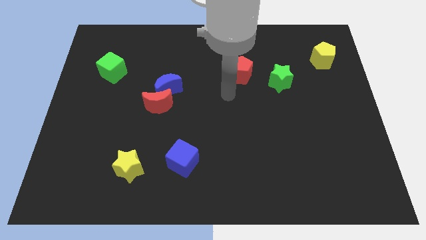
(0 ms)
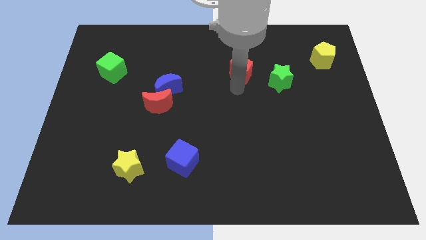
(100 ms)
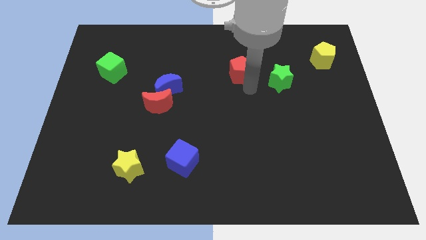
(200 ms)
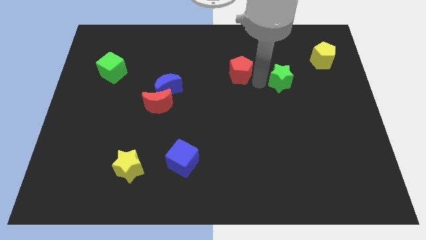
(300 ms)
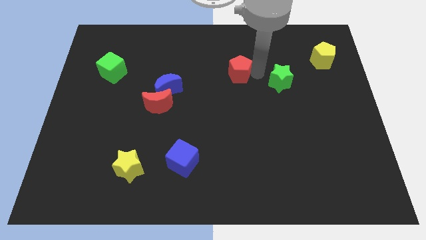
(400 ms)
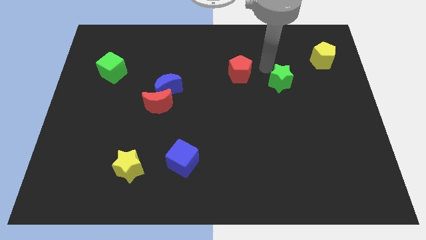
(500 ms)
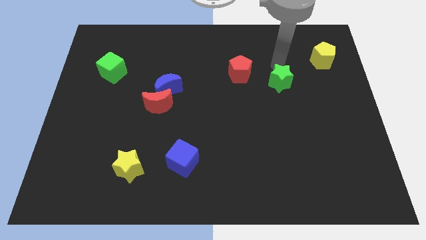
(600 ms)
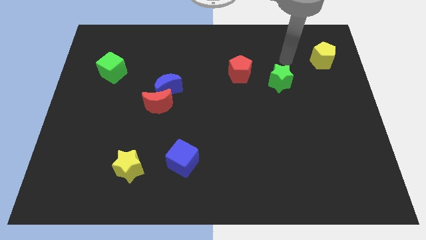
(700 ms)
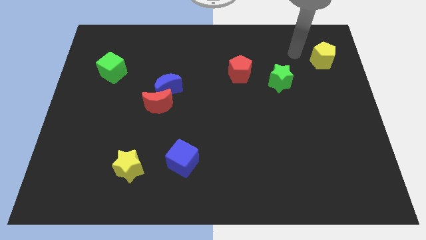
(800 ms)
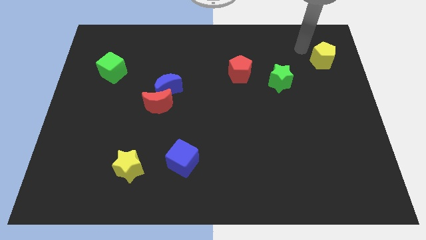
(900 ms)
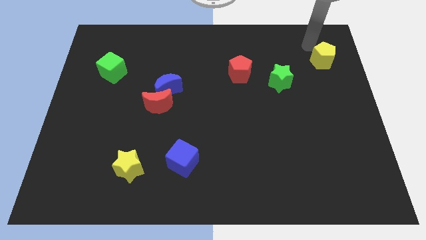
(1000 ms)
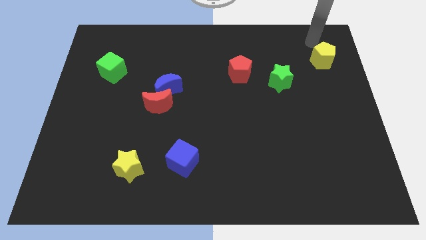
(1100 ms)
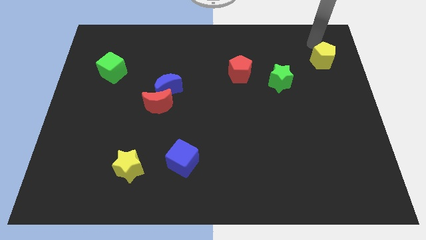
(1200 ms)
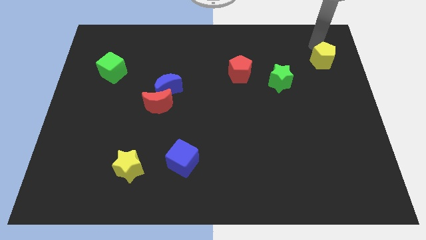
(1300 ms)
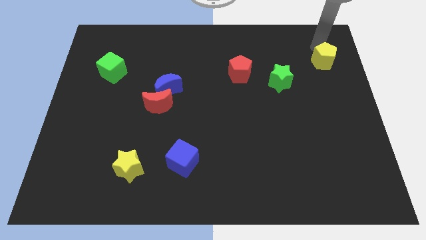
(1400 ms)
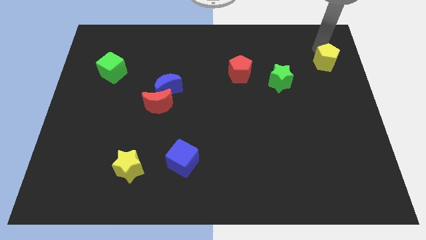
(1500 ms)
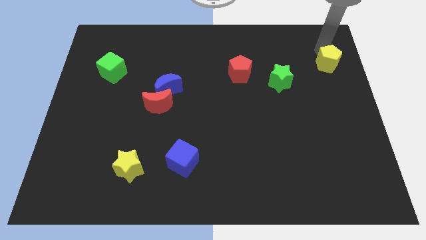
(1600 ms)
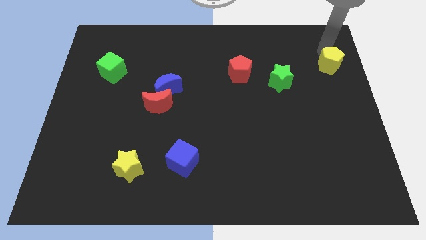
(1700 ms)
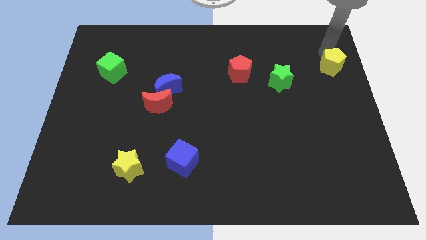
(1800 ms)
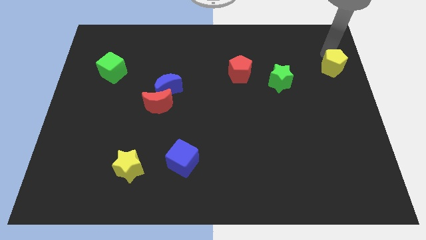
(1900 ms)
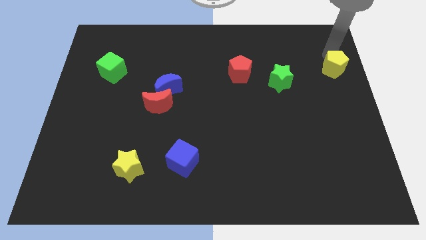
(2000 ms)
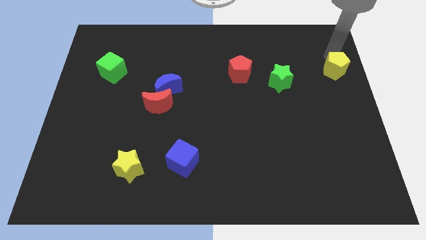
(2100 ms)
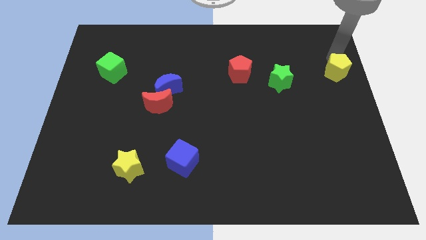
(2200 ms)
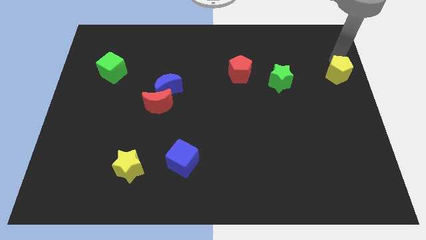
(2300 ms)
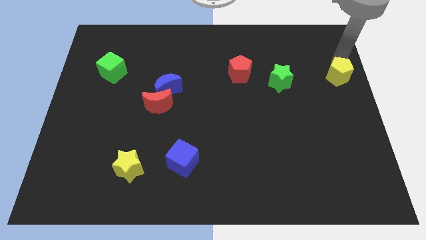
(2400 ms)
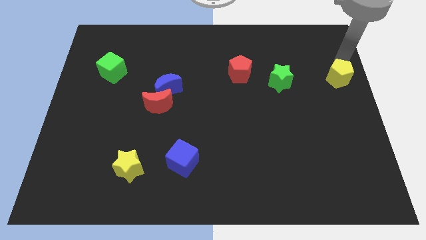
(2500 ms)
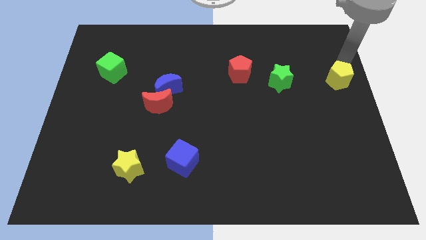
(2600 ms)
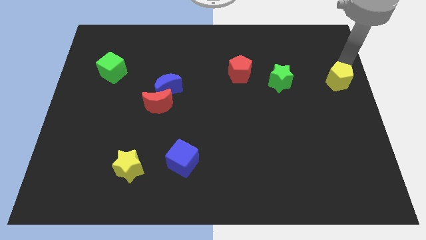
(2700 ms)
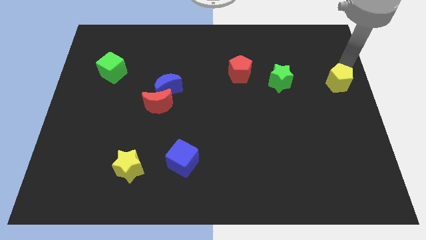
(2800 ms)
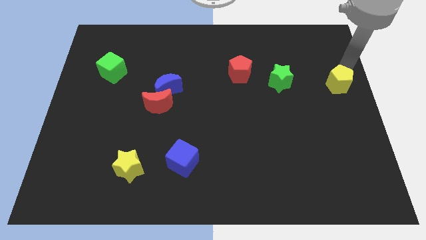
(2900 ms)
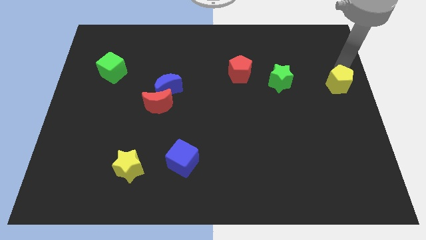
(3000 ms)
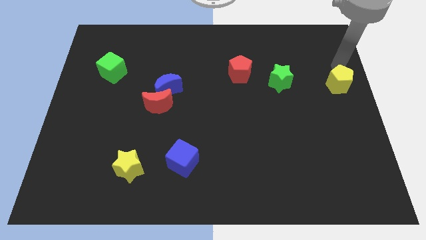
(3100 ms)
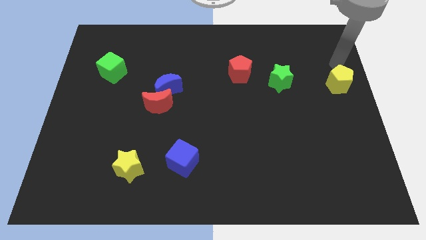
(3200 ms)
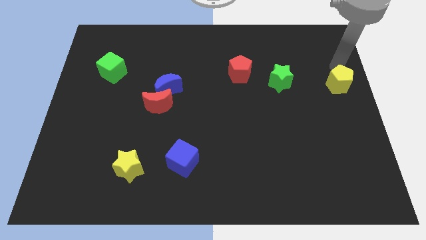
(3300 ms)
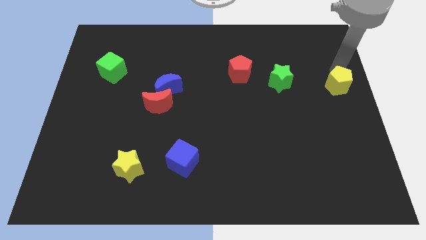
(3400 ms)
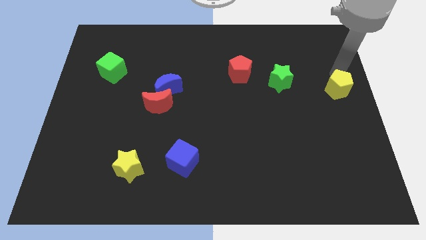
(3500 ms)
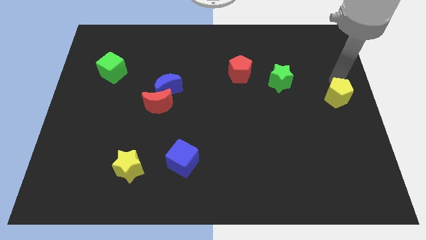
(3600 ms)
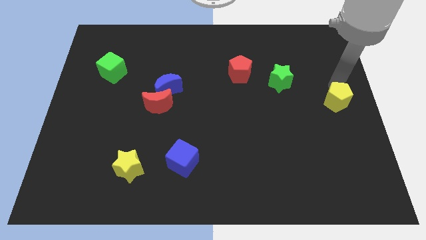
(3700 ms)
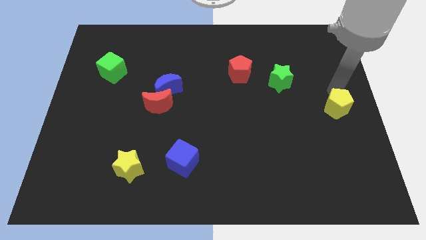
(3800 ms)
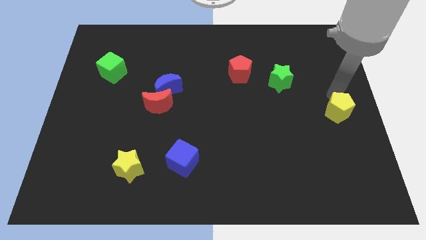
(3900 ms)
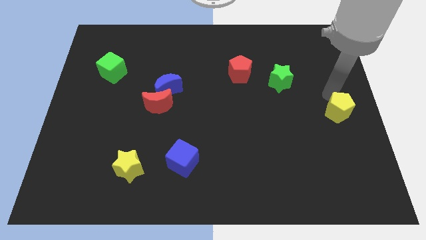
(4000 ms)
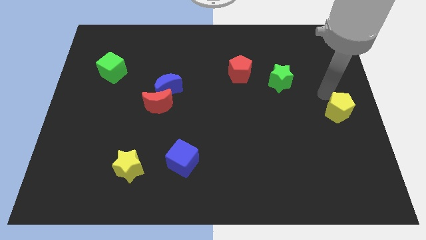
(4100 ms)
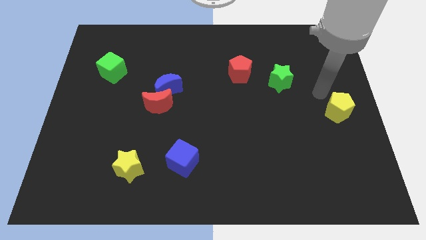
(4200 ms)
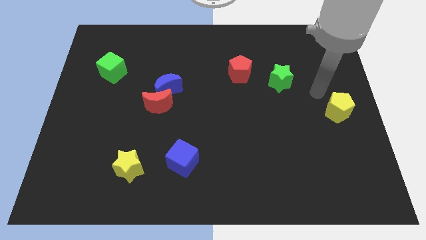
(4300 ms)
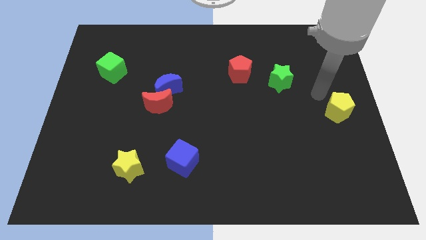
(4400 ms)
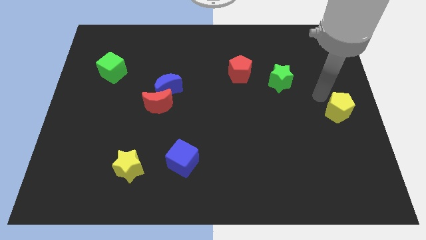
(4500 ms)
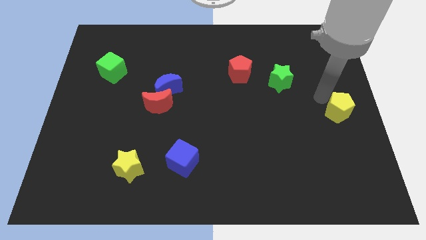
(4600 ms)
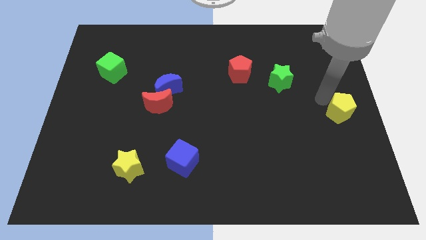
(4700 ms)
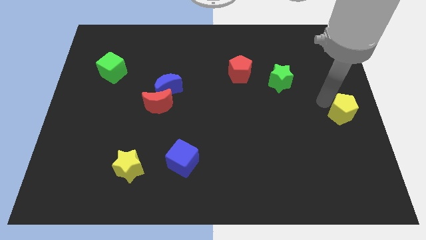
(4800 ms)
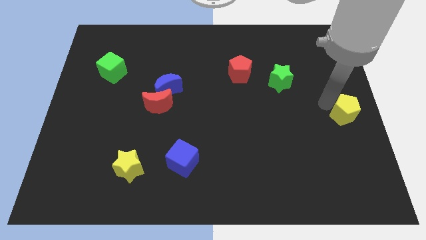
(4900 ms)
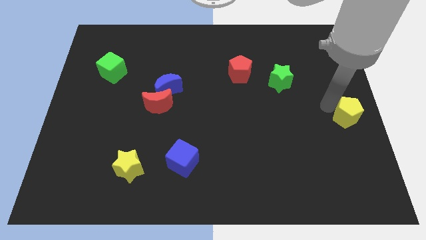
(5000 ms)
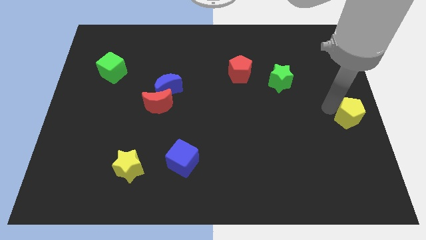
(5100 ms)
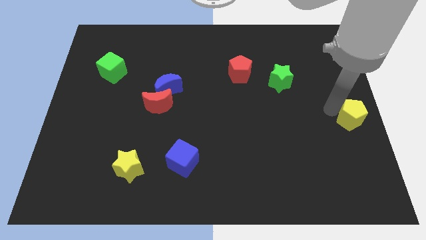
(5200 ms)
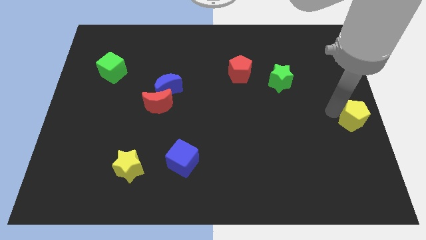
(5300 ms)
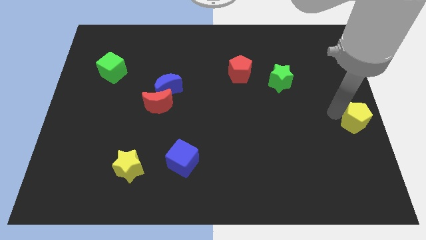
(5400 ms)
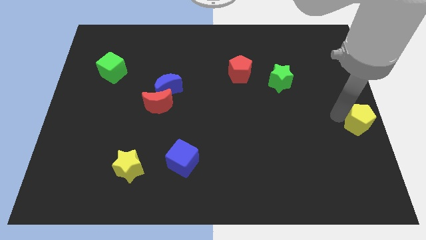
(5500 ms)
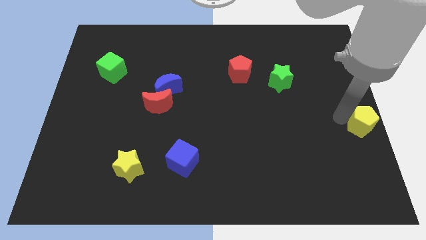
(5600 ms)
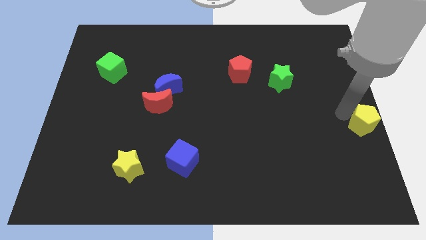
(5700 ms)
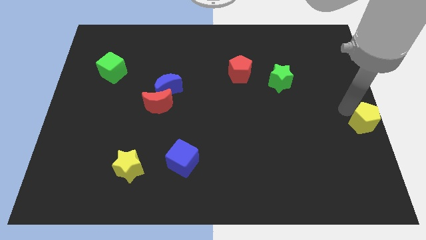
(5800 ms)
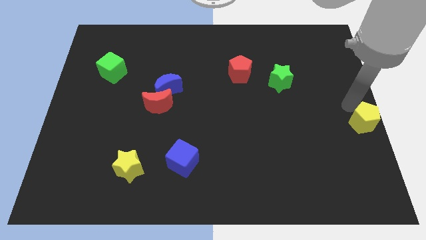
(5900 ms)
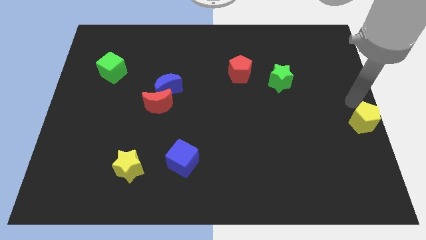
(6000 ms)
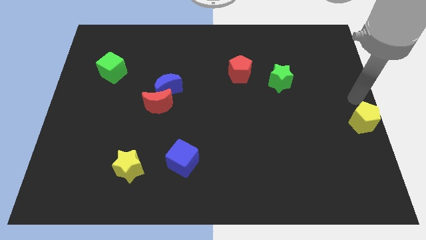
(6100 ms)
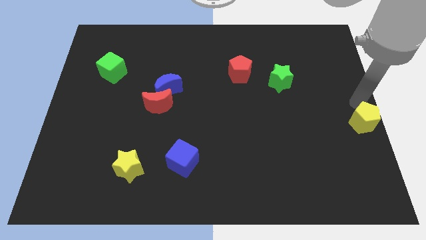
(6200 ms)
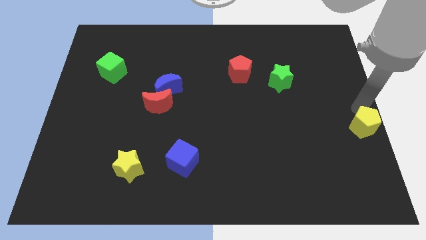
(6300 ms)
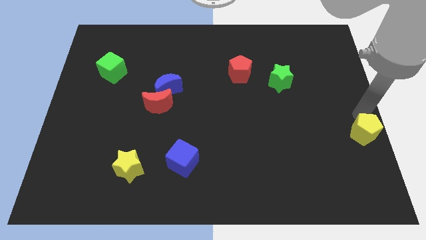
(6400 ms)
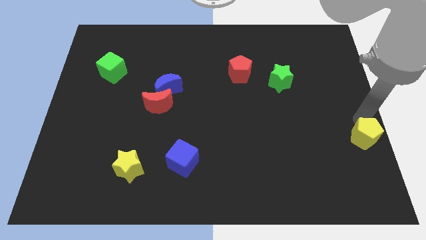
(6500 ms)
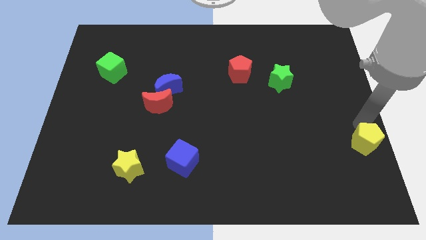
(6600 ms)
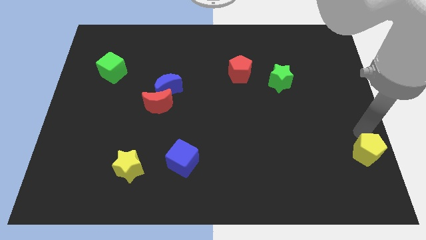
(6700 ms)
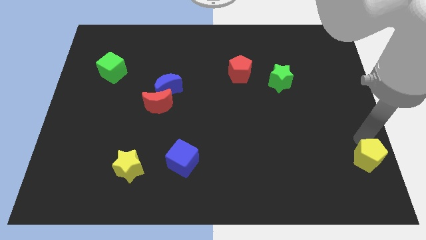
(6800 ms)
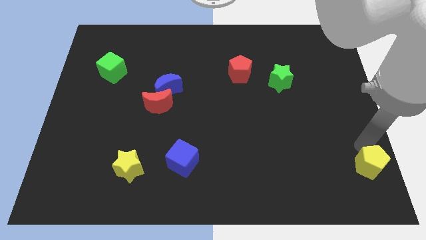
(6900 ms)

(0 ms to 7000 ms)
slide the yellow pentagon to the bottom right
